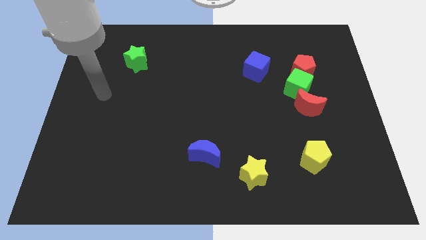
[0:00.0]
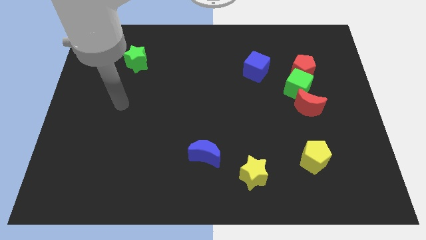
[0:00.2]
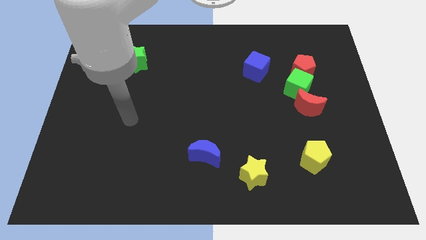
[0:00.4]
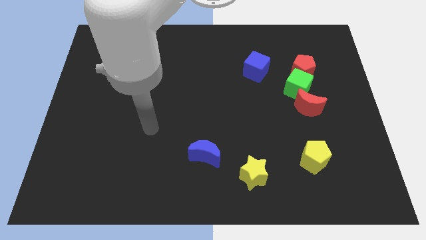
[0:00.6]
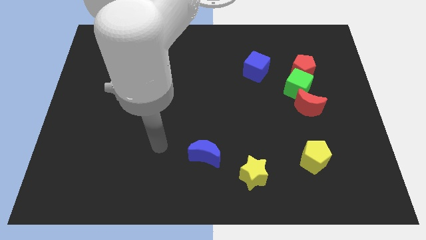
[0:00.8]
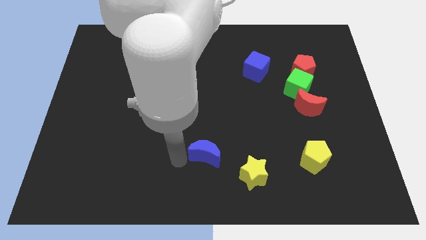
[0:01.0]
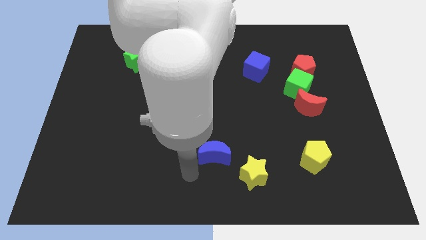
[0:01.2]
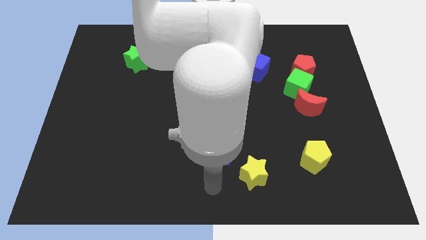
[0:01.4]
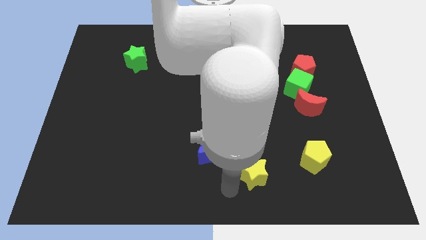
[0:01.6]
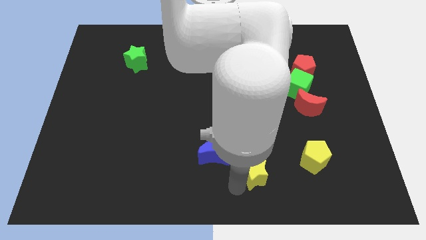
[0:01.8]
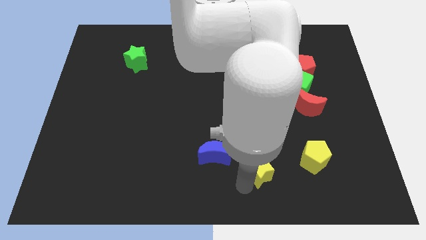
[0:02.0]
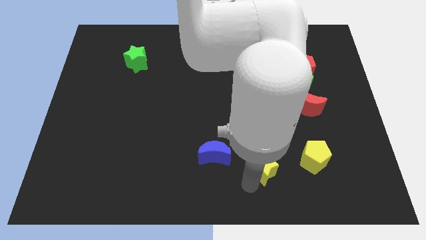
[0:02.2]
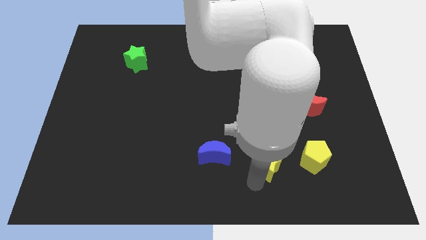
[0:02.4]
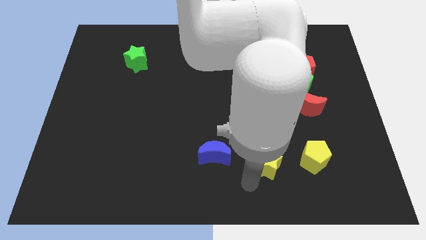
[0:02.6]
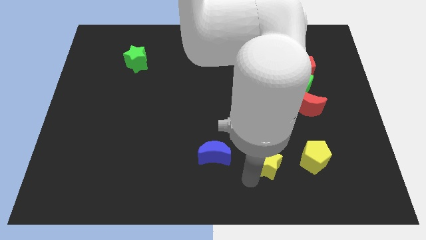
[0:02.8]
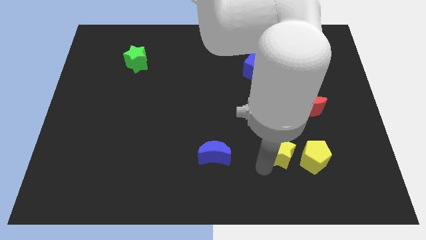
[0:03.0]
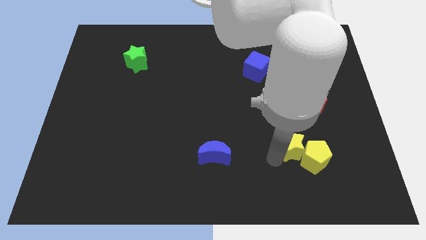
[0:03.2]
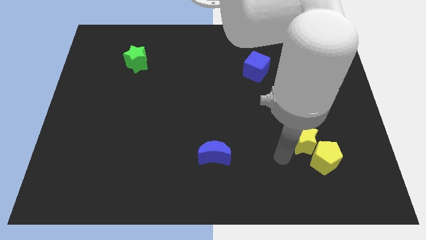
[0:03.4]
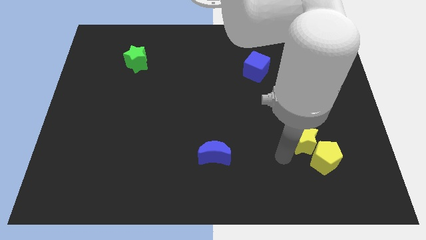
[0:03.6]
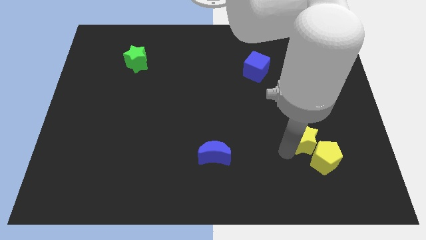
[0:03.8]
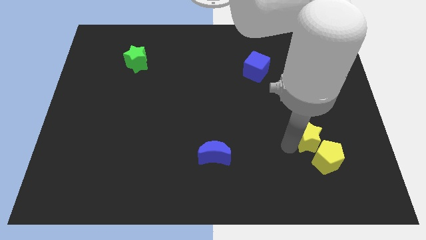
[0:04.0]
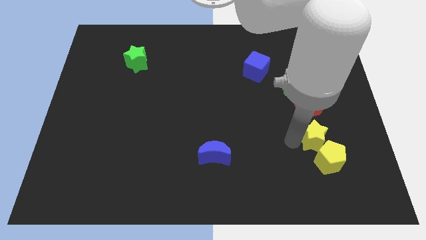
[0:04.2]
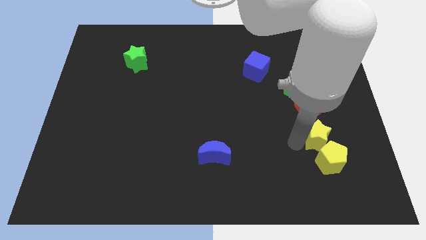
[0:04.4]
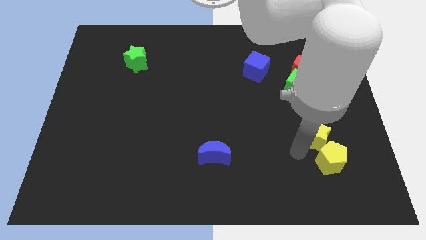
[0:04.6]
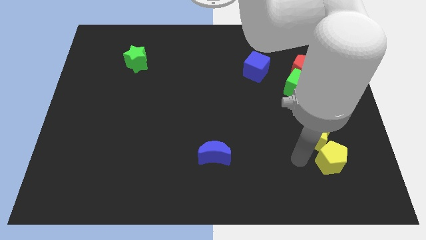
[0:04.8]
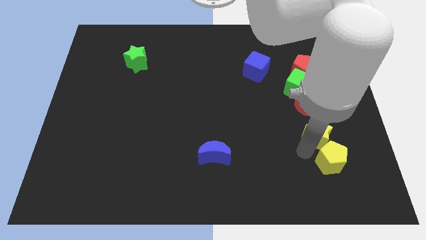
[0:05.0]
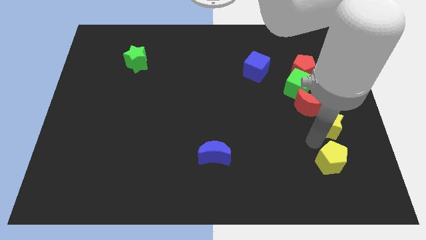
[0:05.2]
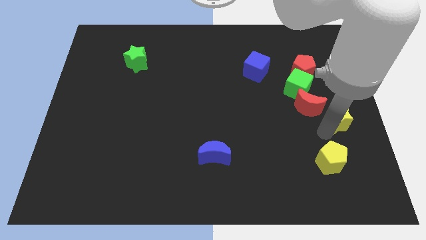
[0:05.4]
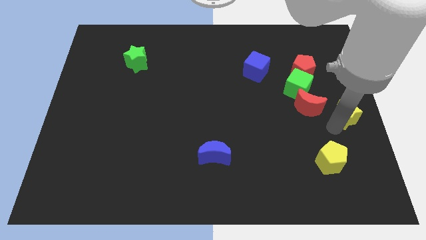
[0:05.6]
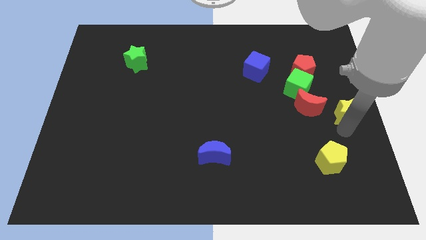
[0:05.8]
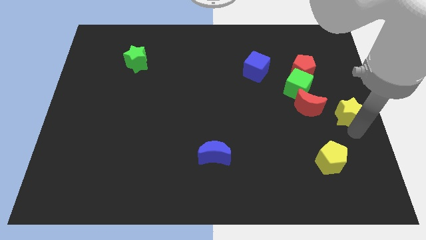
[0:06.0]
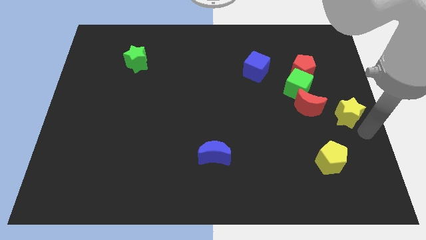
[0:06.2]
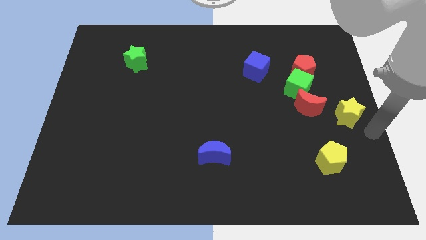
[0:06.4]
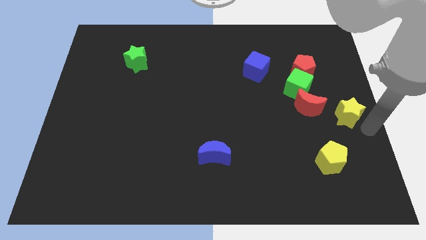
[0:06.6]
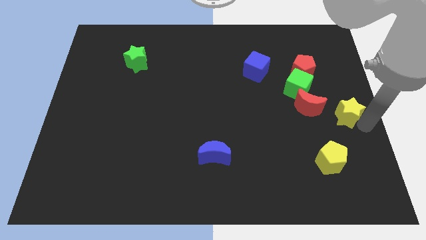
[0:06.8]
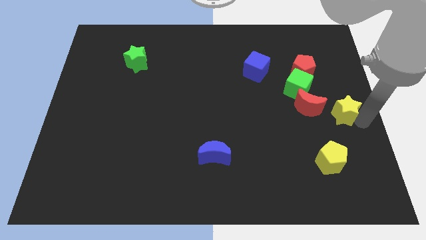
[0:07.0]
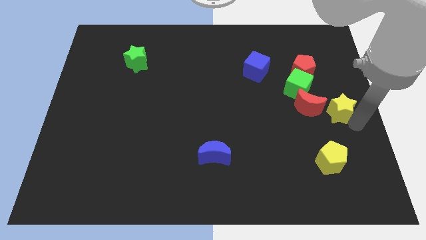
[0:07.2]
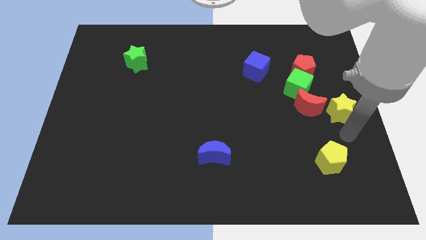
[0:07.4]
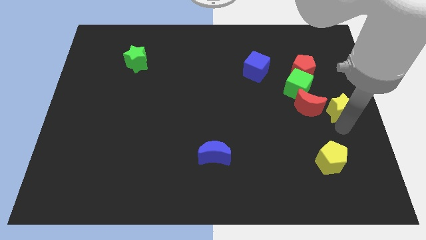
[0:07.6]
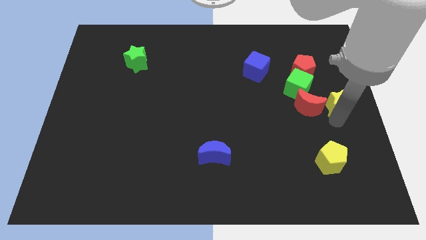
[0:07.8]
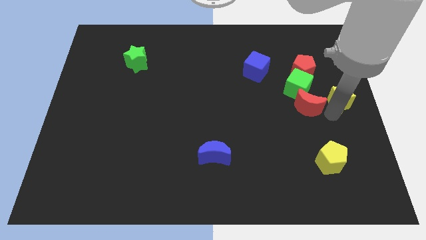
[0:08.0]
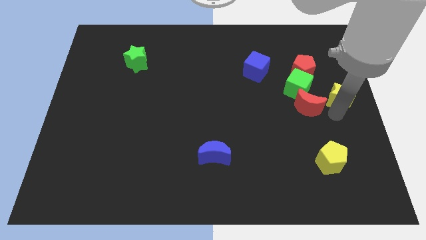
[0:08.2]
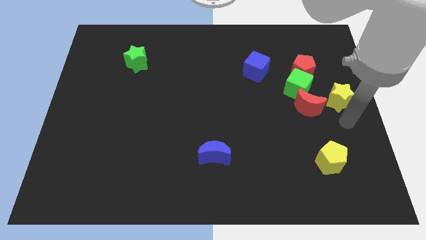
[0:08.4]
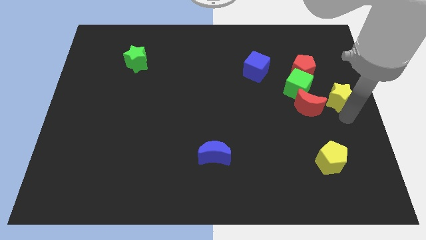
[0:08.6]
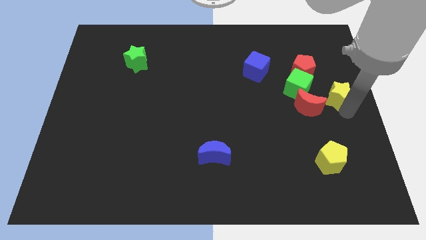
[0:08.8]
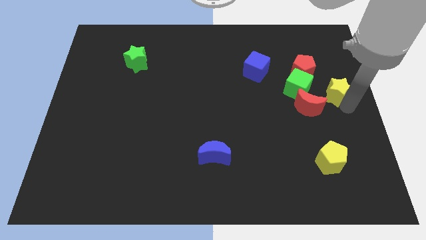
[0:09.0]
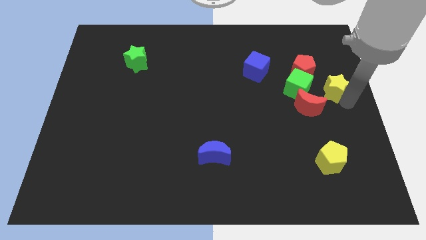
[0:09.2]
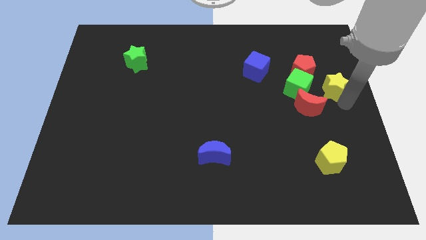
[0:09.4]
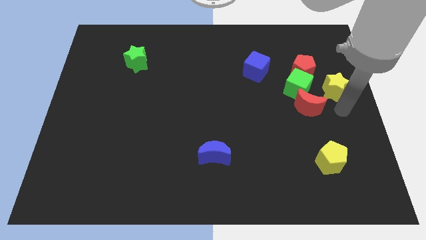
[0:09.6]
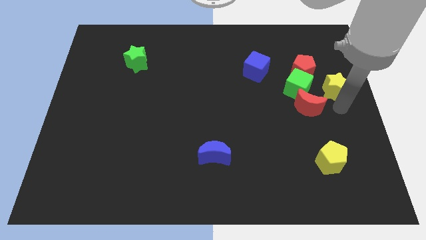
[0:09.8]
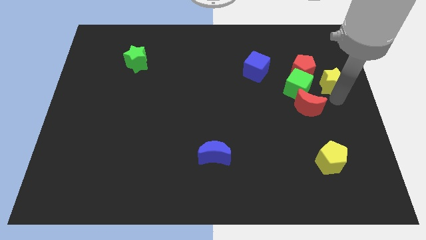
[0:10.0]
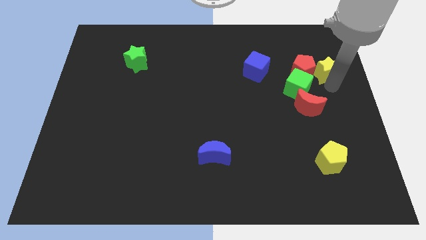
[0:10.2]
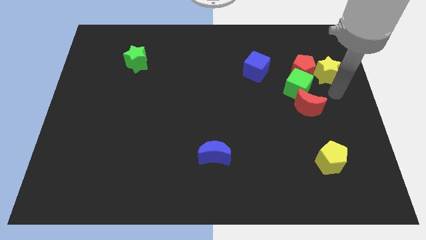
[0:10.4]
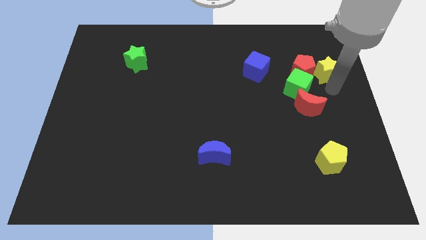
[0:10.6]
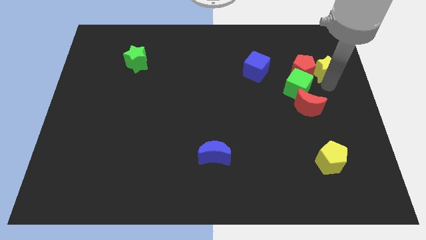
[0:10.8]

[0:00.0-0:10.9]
slide the yellow star to the top right of the red pentagon

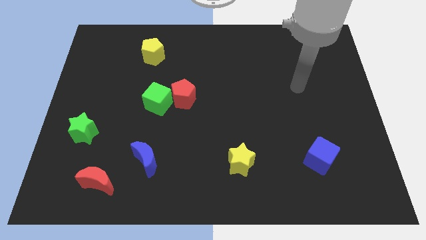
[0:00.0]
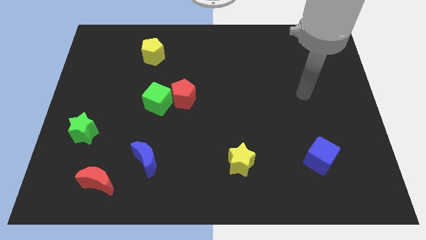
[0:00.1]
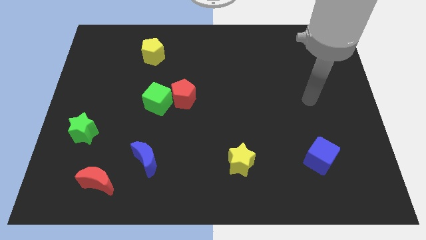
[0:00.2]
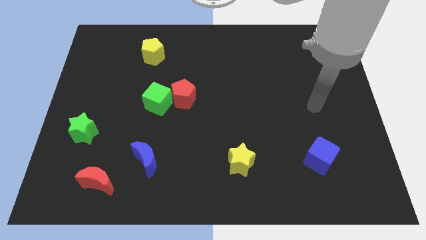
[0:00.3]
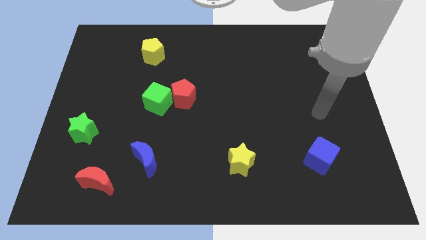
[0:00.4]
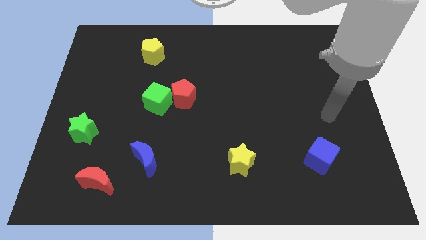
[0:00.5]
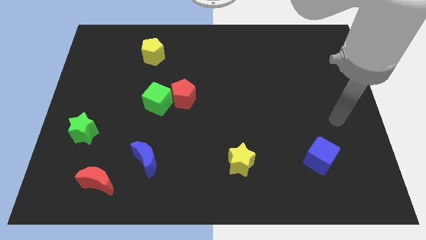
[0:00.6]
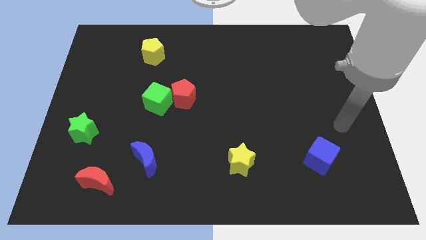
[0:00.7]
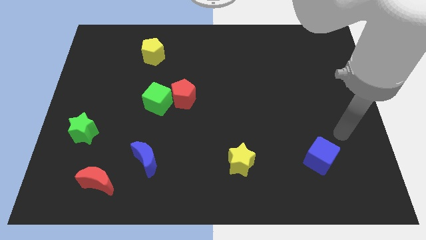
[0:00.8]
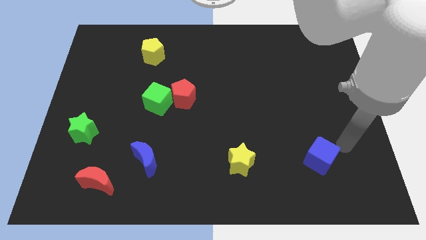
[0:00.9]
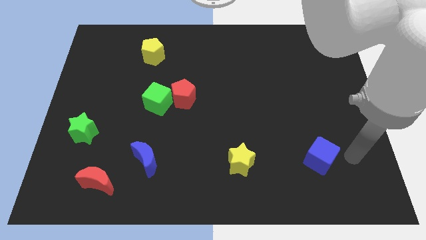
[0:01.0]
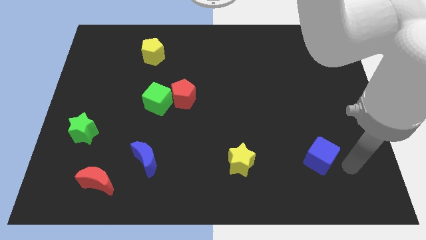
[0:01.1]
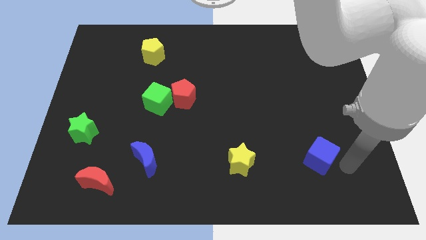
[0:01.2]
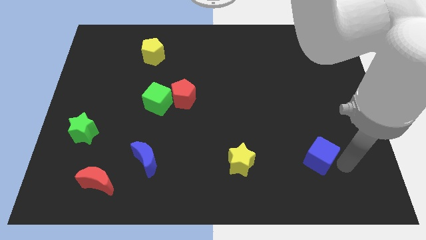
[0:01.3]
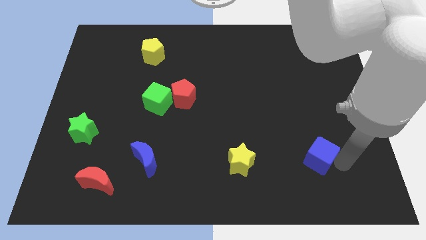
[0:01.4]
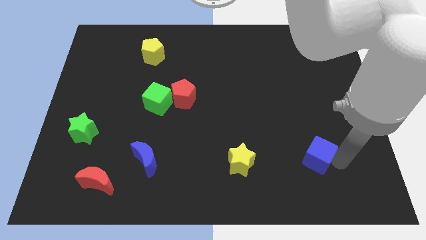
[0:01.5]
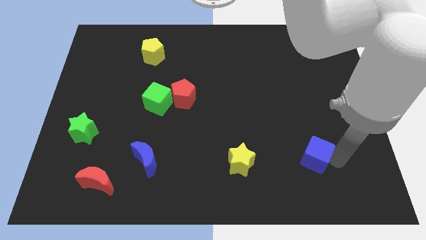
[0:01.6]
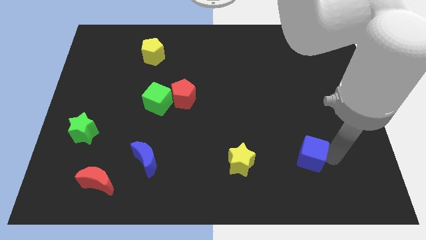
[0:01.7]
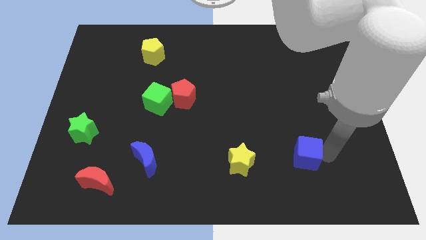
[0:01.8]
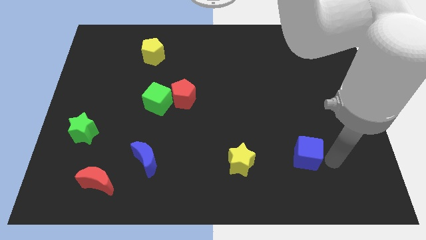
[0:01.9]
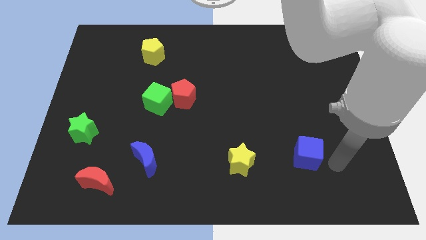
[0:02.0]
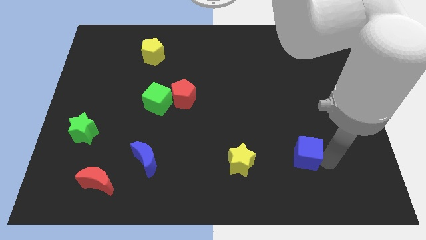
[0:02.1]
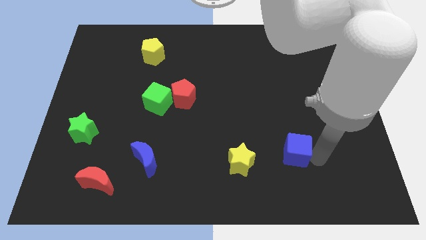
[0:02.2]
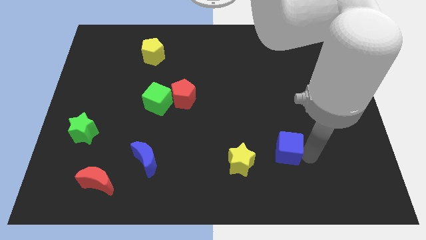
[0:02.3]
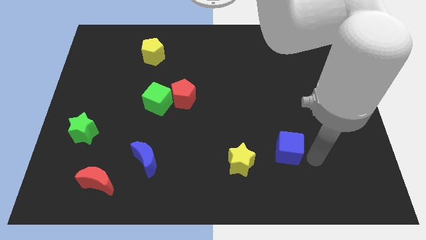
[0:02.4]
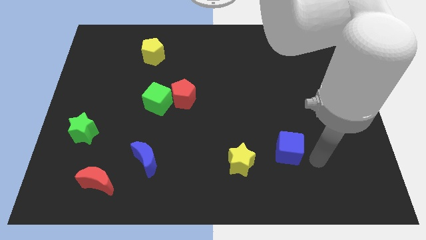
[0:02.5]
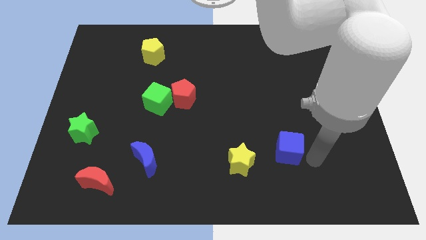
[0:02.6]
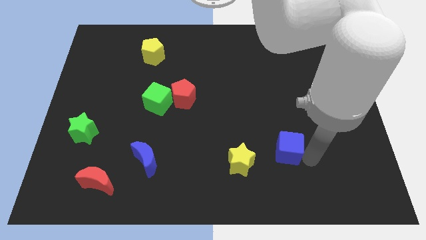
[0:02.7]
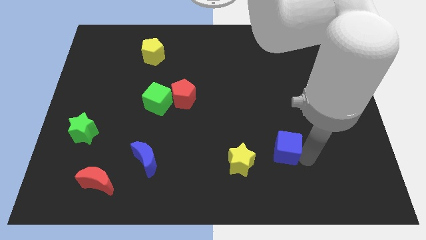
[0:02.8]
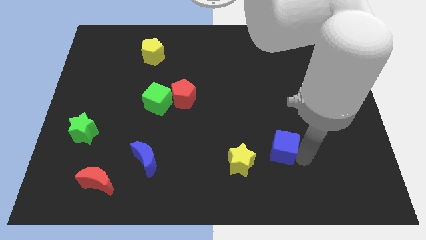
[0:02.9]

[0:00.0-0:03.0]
slide the blue cube diagonally up and to the right of the yellow star
